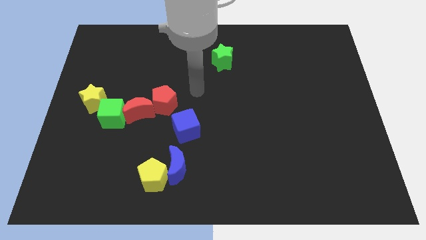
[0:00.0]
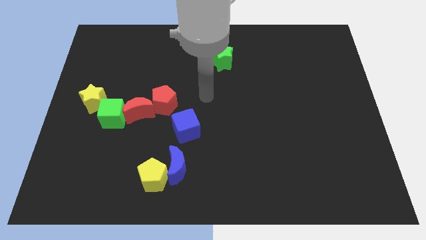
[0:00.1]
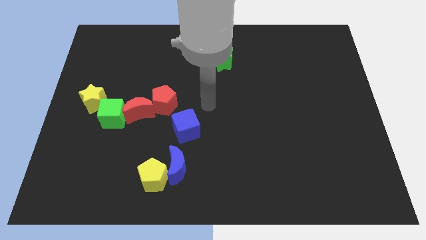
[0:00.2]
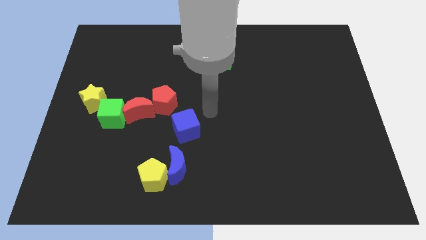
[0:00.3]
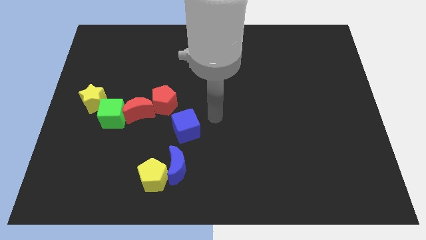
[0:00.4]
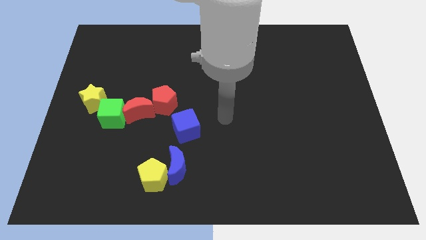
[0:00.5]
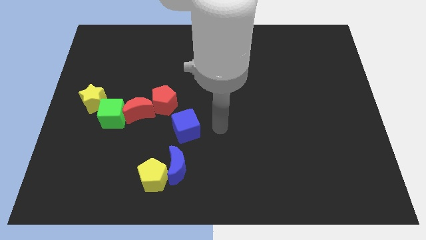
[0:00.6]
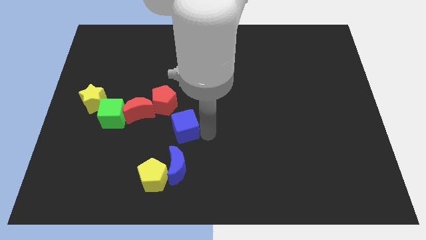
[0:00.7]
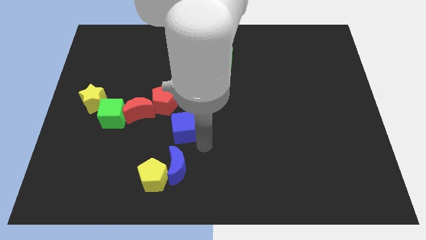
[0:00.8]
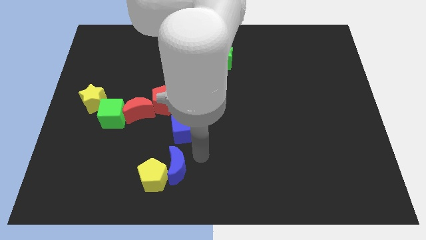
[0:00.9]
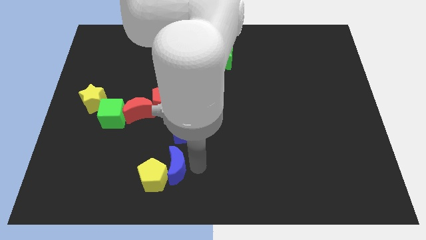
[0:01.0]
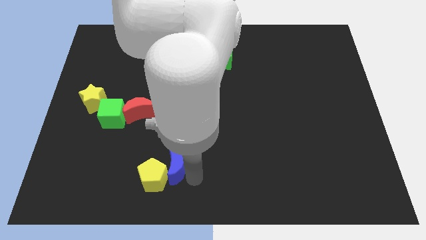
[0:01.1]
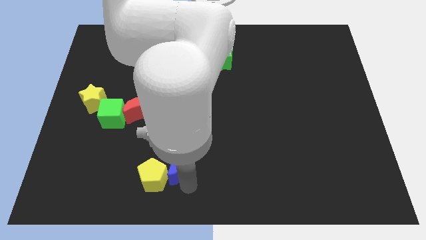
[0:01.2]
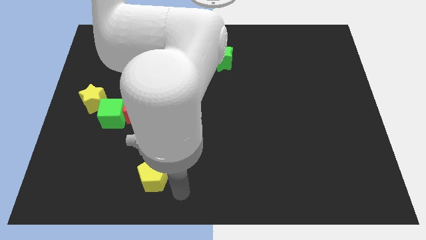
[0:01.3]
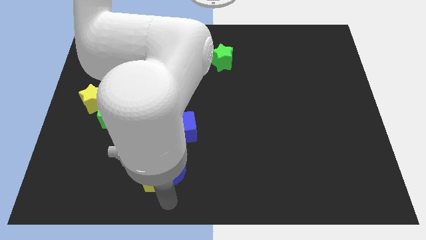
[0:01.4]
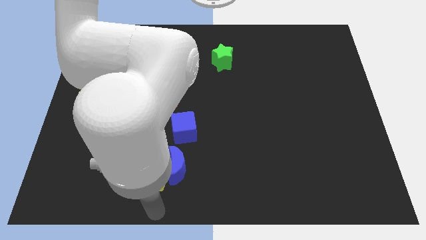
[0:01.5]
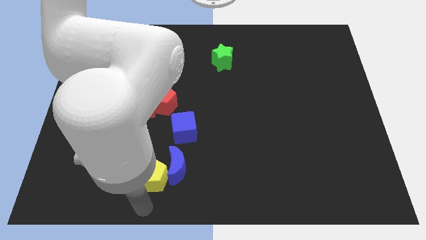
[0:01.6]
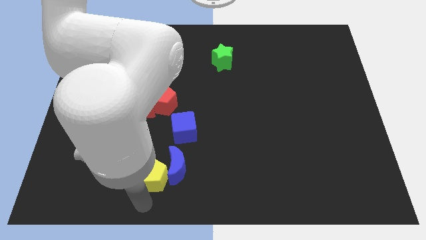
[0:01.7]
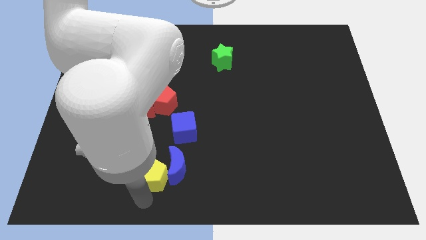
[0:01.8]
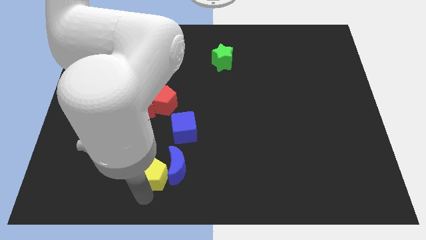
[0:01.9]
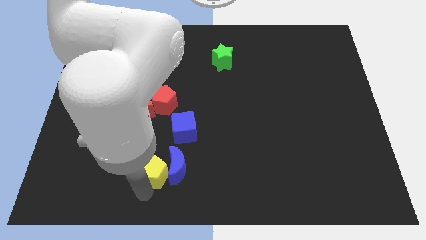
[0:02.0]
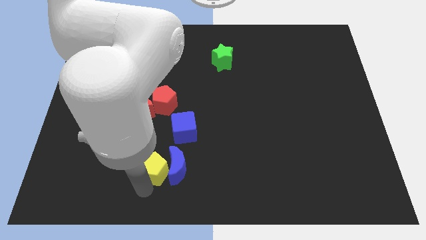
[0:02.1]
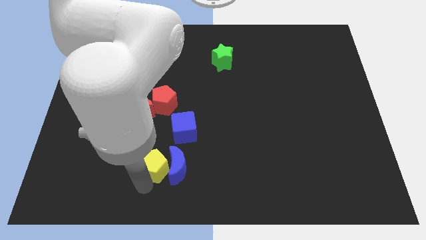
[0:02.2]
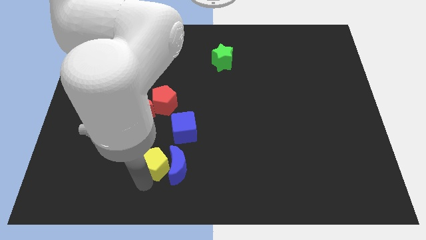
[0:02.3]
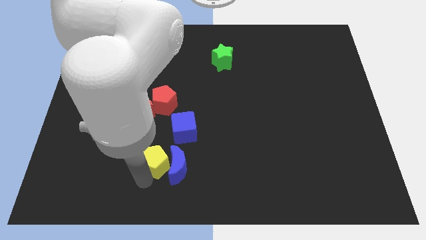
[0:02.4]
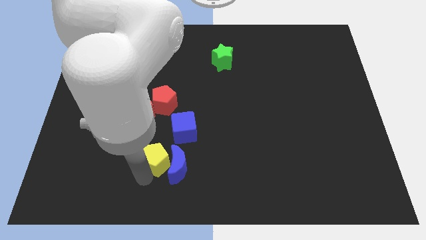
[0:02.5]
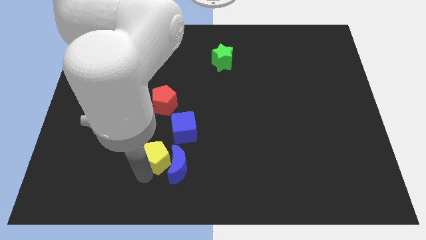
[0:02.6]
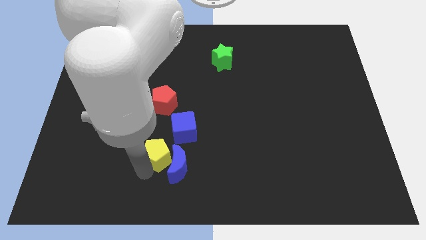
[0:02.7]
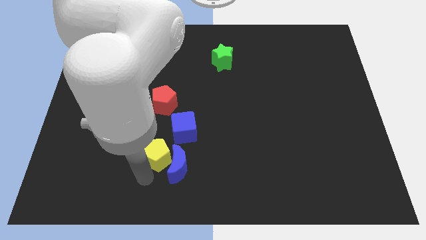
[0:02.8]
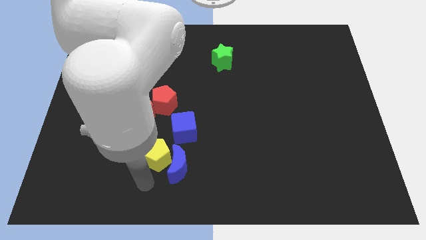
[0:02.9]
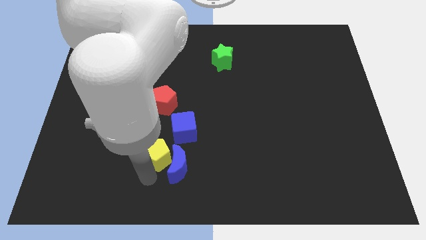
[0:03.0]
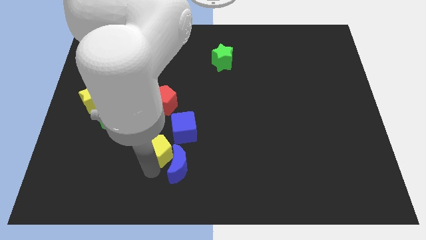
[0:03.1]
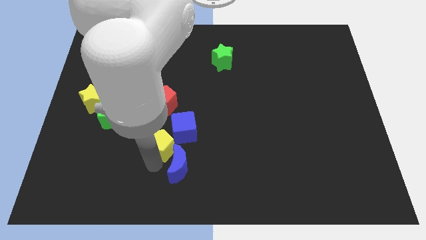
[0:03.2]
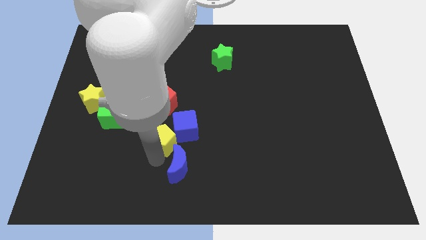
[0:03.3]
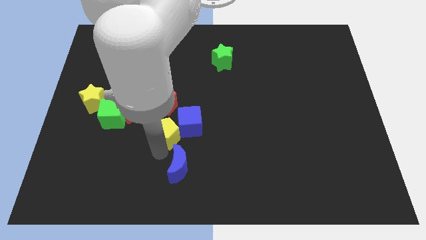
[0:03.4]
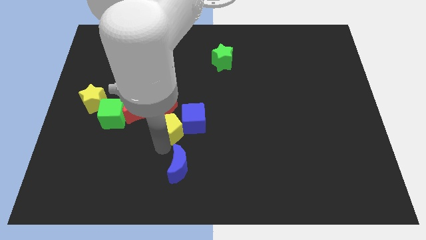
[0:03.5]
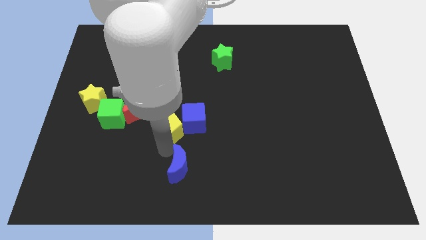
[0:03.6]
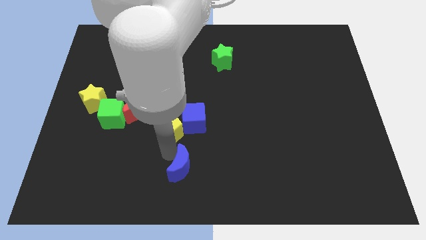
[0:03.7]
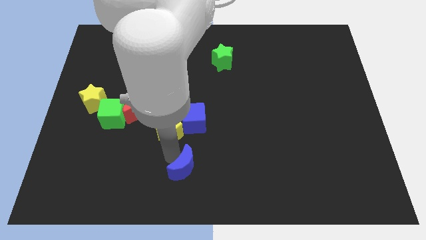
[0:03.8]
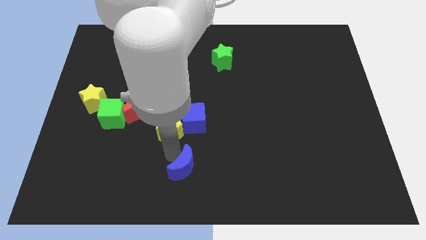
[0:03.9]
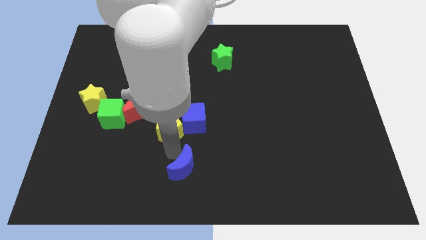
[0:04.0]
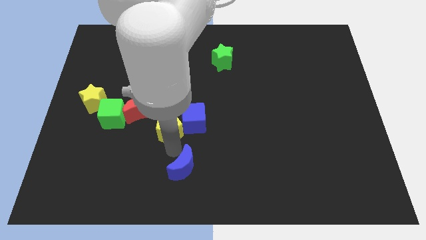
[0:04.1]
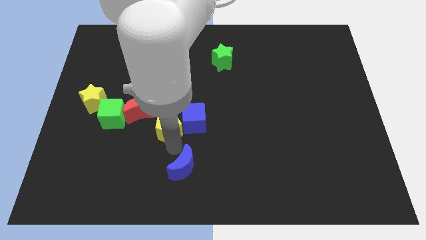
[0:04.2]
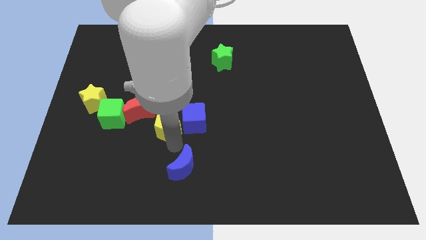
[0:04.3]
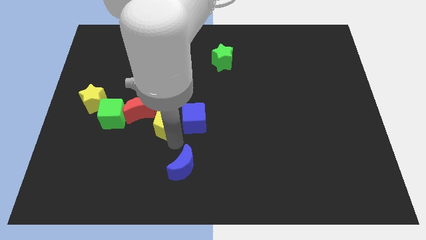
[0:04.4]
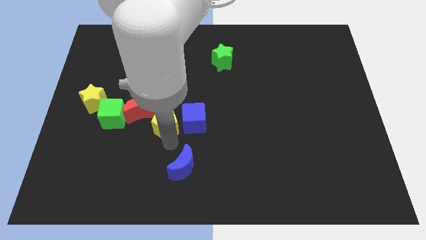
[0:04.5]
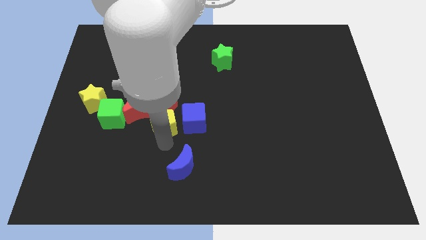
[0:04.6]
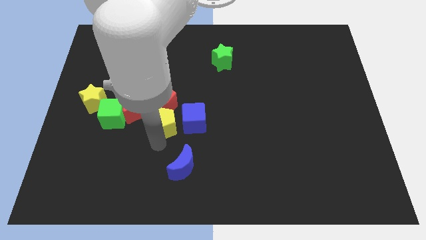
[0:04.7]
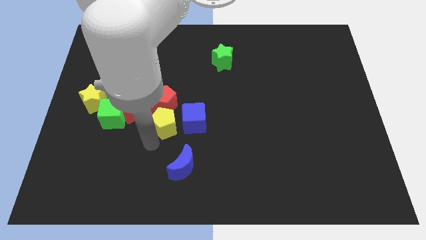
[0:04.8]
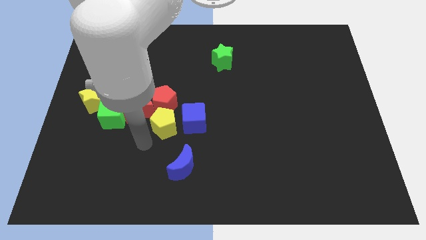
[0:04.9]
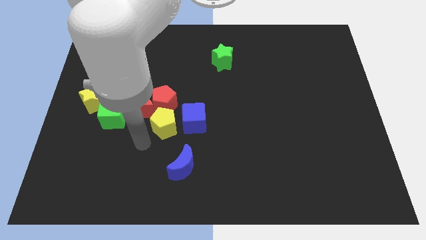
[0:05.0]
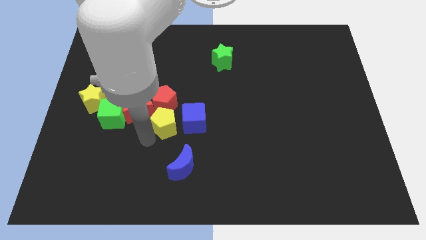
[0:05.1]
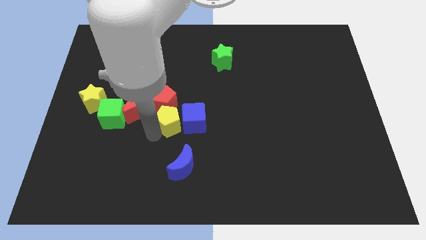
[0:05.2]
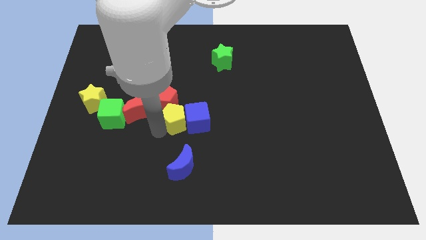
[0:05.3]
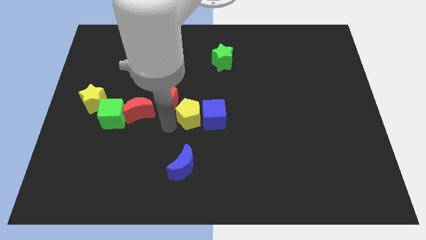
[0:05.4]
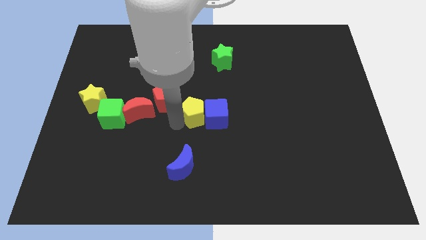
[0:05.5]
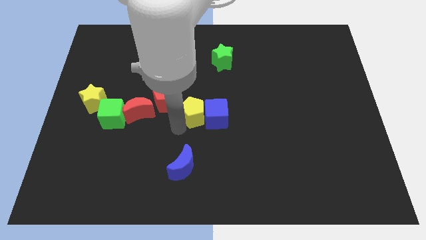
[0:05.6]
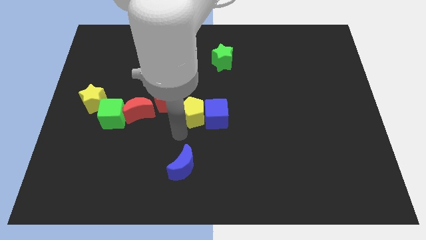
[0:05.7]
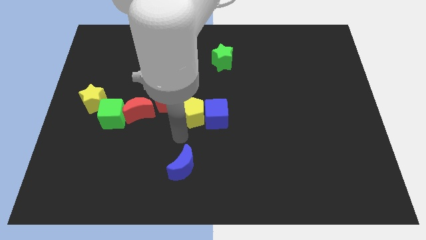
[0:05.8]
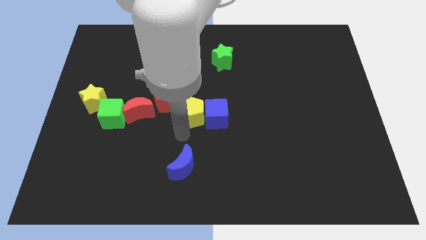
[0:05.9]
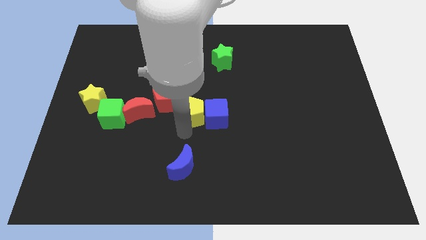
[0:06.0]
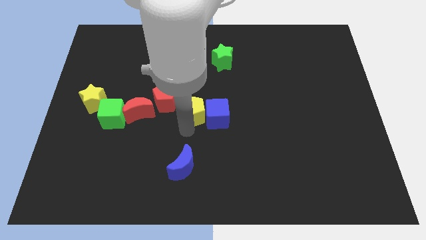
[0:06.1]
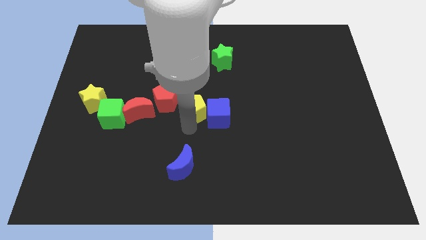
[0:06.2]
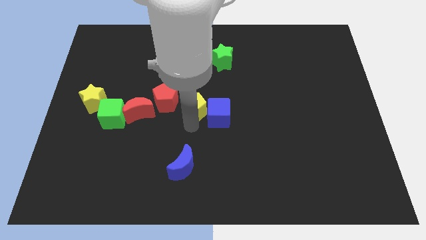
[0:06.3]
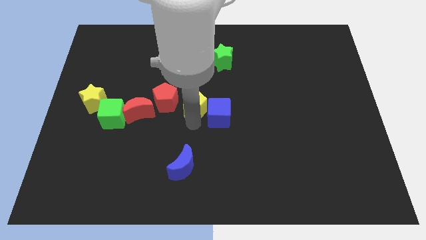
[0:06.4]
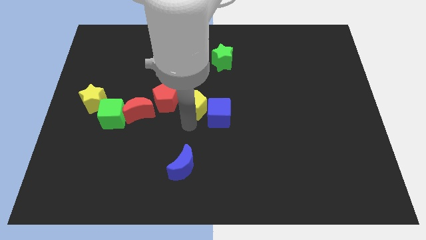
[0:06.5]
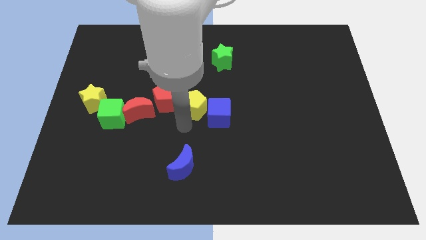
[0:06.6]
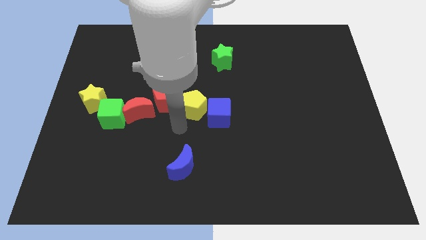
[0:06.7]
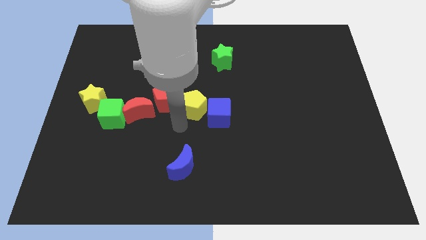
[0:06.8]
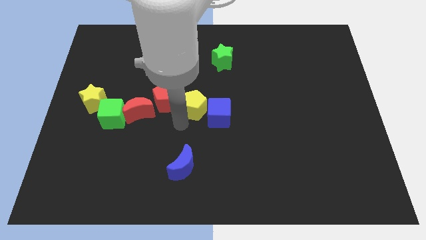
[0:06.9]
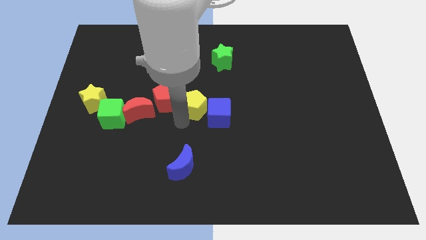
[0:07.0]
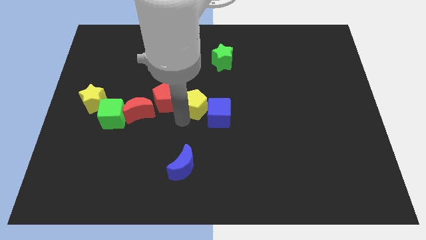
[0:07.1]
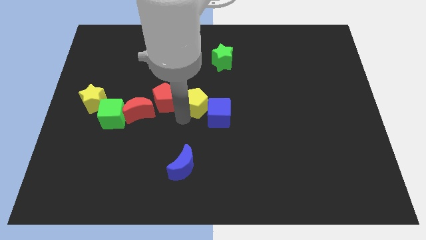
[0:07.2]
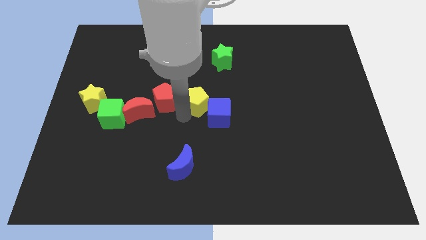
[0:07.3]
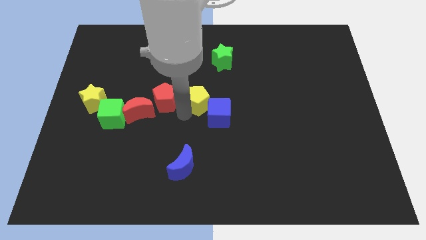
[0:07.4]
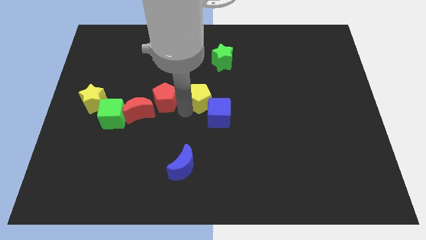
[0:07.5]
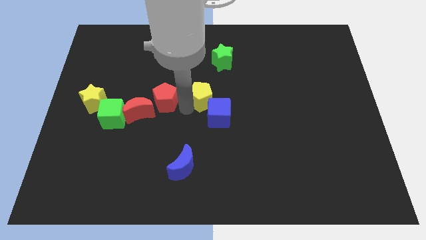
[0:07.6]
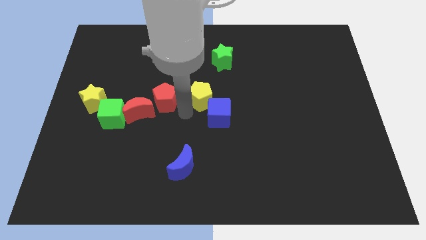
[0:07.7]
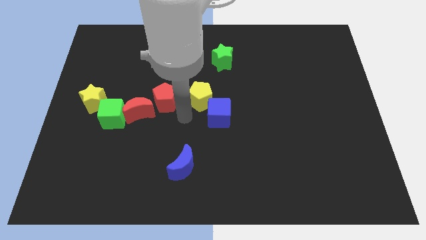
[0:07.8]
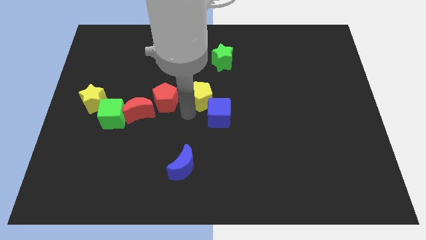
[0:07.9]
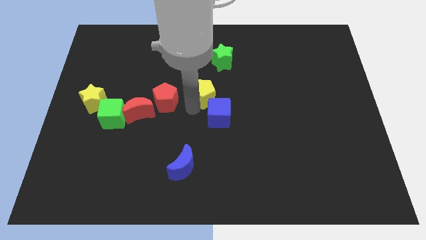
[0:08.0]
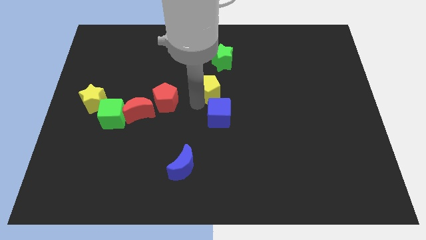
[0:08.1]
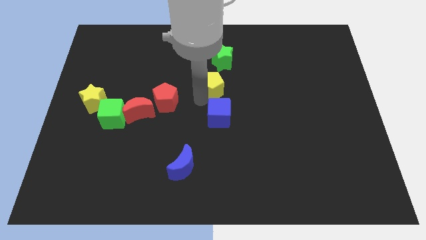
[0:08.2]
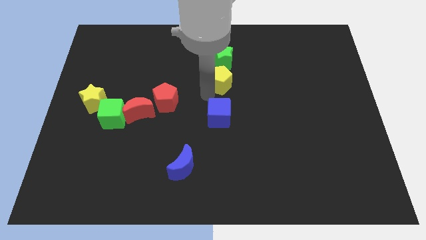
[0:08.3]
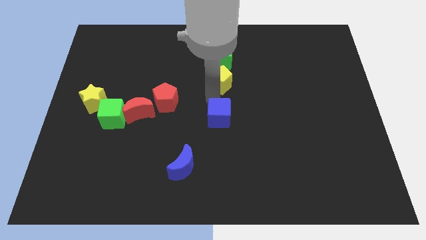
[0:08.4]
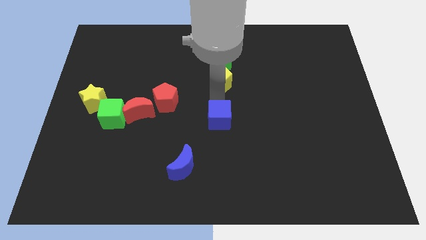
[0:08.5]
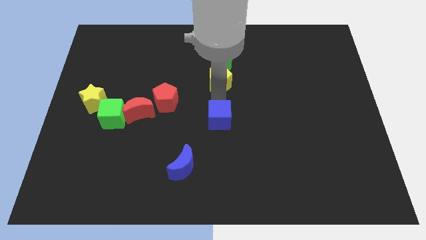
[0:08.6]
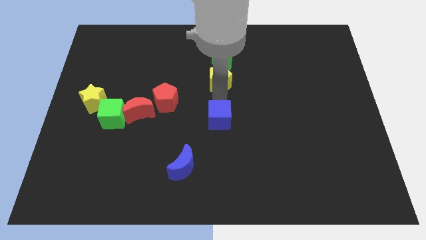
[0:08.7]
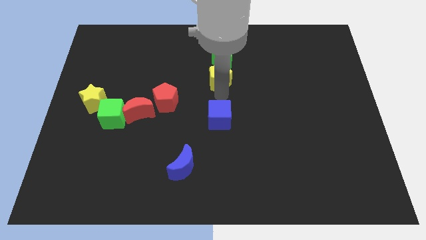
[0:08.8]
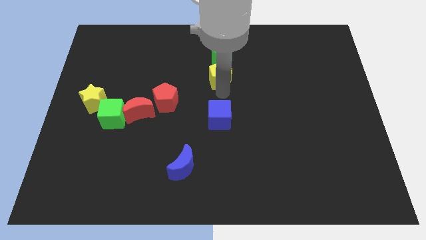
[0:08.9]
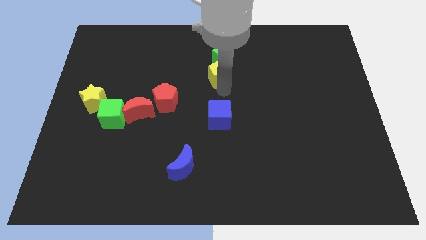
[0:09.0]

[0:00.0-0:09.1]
slide the yellow pentagon next to the green star
